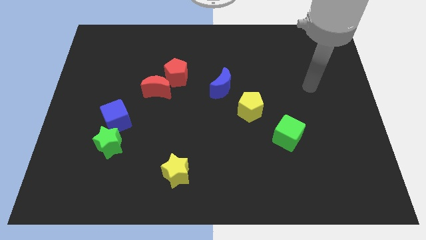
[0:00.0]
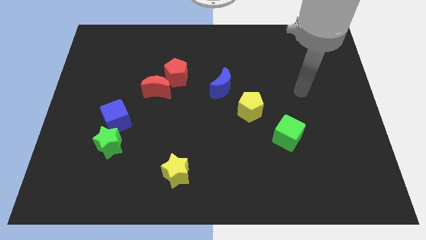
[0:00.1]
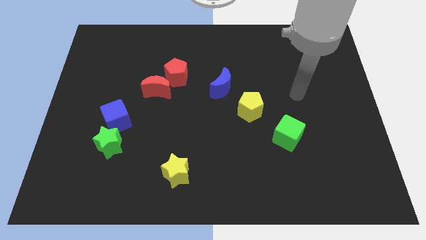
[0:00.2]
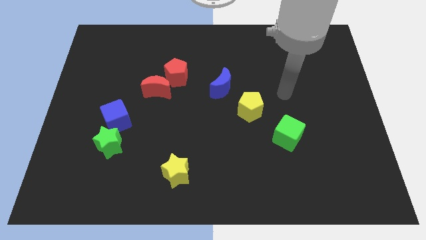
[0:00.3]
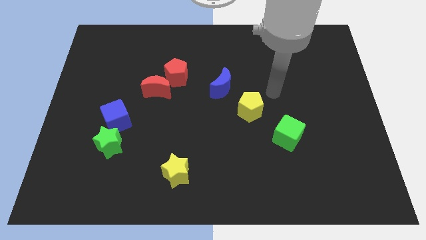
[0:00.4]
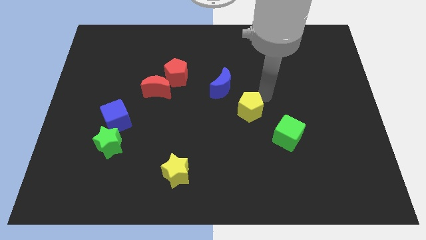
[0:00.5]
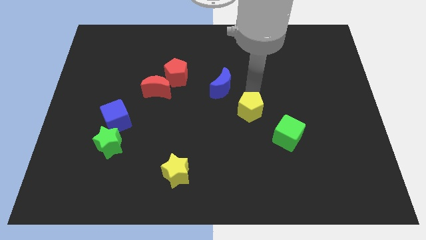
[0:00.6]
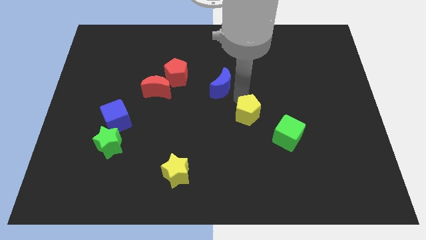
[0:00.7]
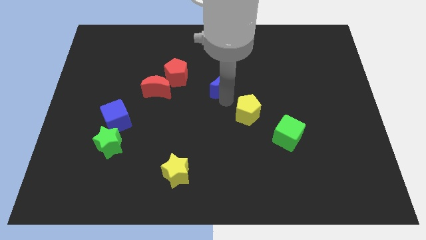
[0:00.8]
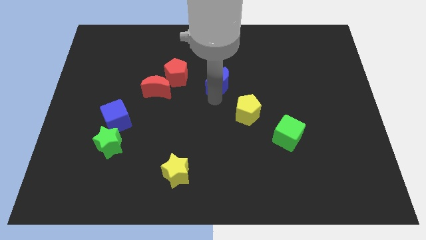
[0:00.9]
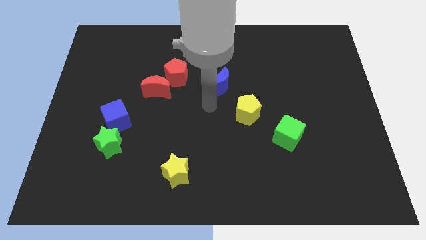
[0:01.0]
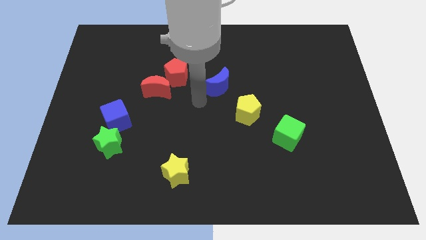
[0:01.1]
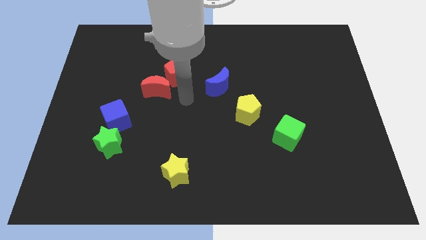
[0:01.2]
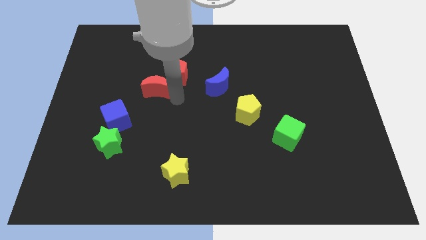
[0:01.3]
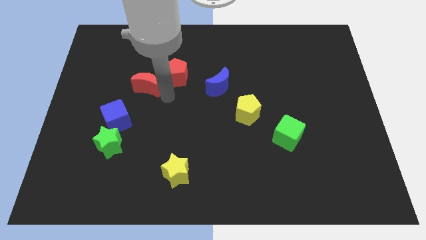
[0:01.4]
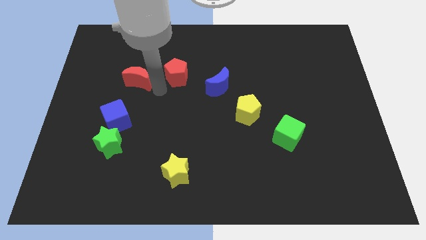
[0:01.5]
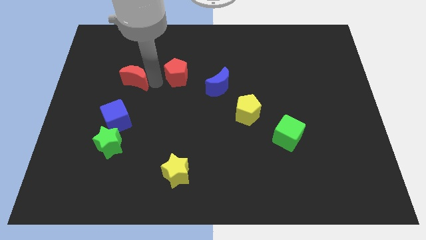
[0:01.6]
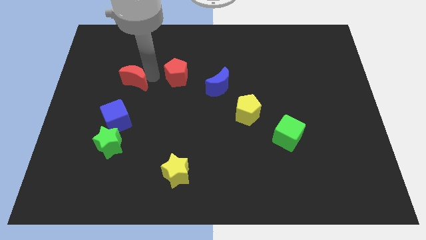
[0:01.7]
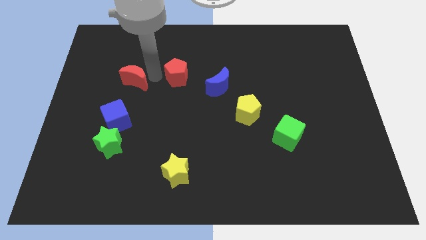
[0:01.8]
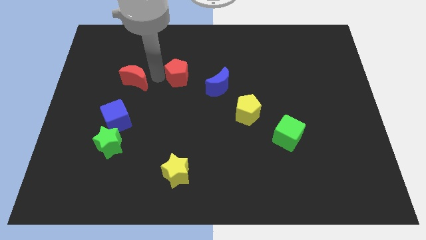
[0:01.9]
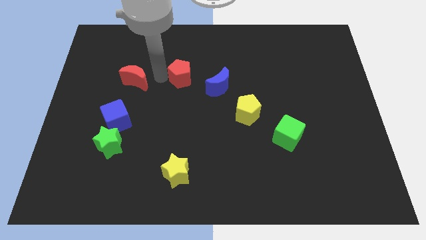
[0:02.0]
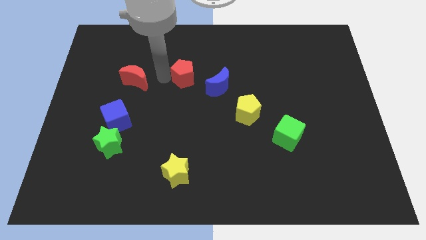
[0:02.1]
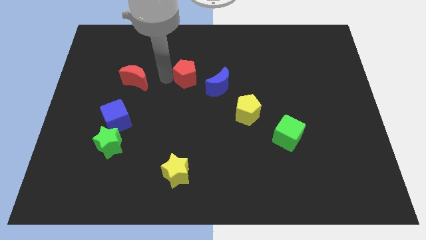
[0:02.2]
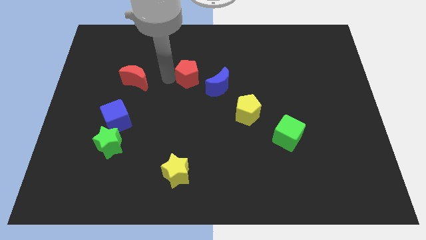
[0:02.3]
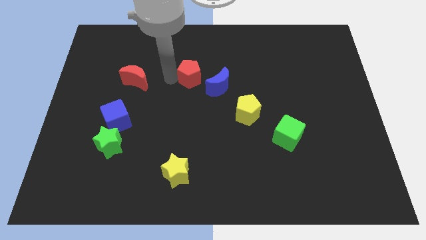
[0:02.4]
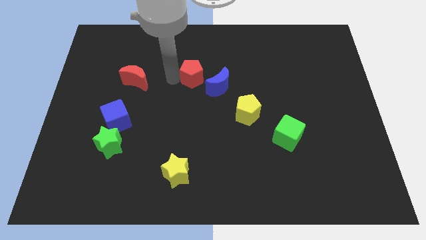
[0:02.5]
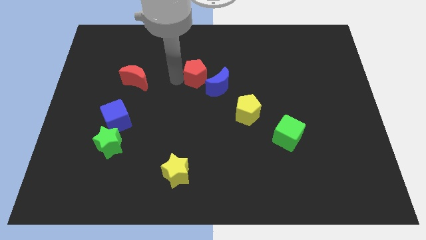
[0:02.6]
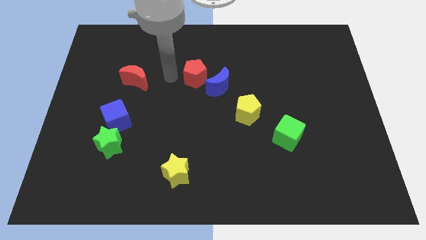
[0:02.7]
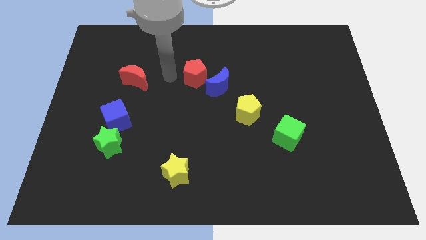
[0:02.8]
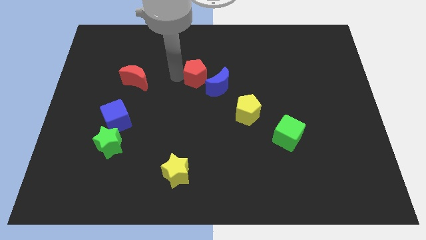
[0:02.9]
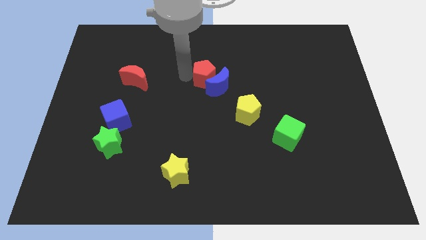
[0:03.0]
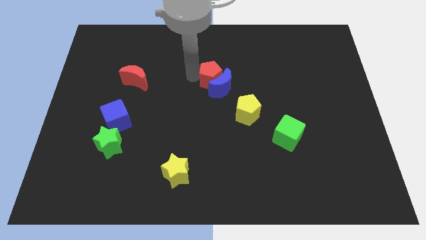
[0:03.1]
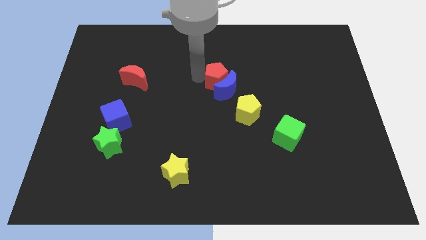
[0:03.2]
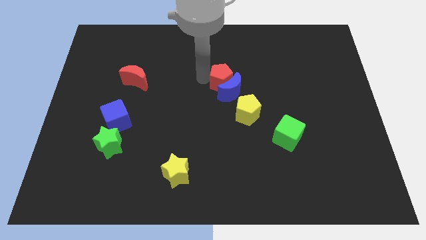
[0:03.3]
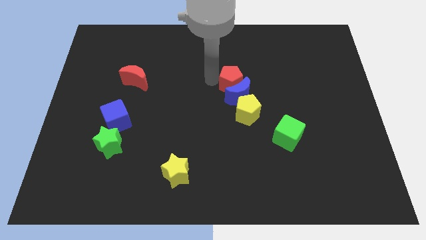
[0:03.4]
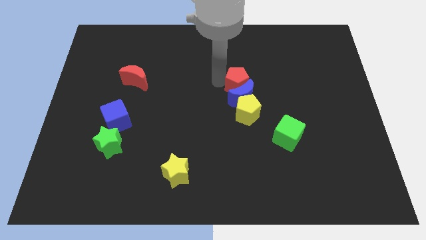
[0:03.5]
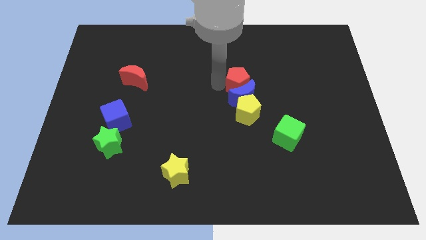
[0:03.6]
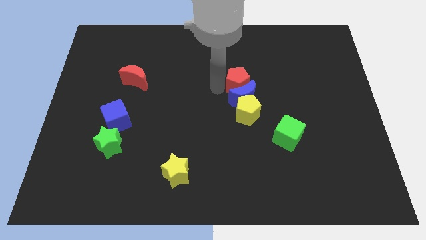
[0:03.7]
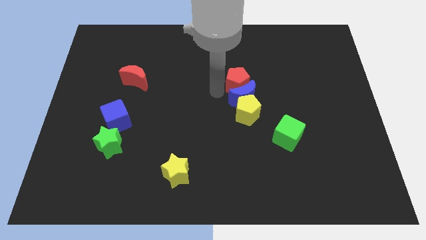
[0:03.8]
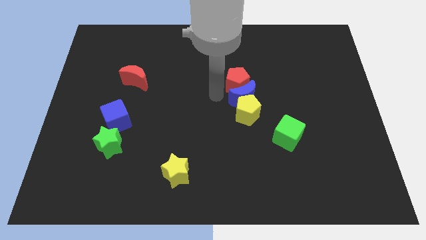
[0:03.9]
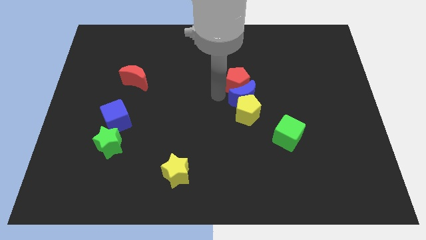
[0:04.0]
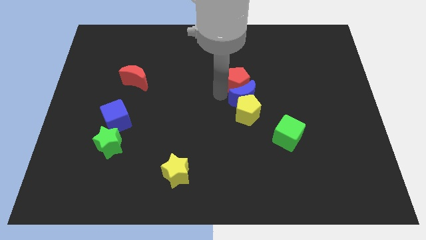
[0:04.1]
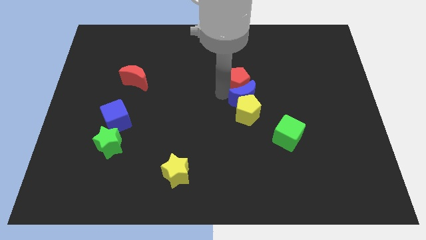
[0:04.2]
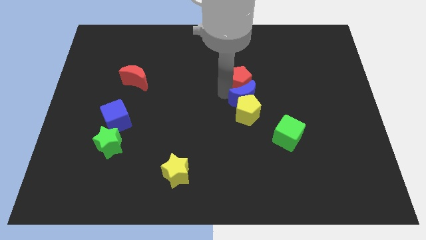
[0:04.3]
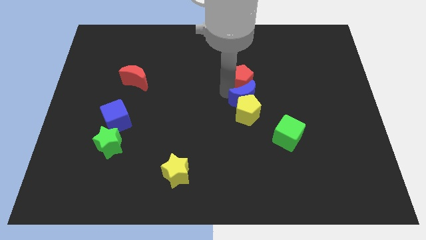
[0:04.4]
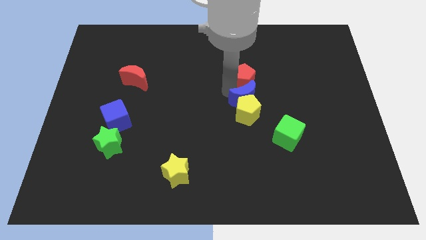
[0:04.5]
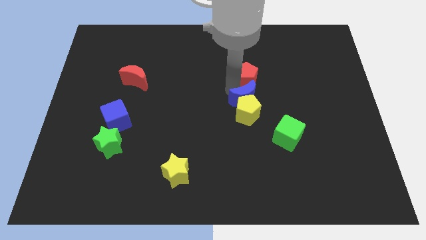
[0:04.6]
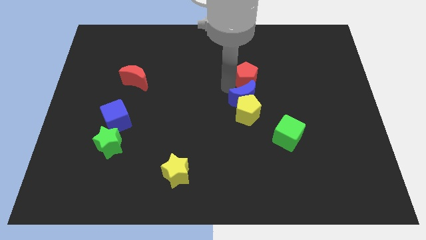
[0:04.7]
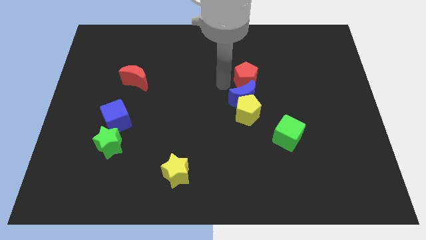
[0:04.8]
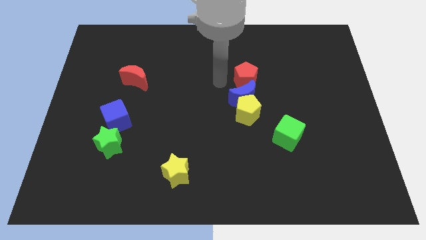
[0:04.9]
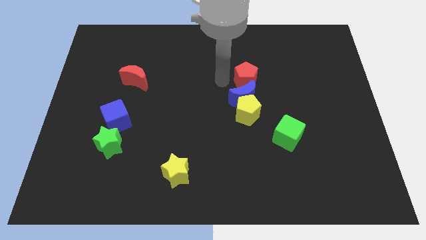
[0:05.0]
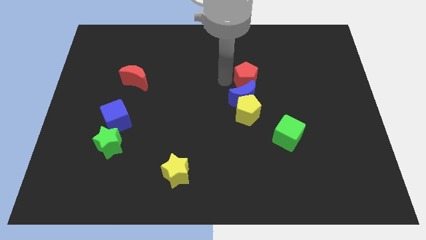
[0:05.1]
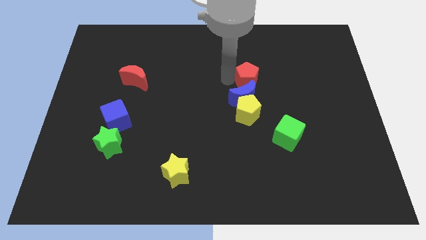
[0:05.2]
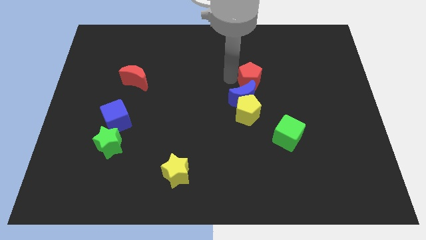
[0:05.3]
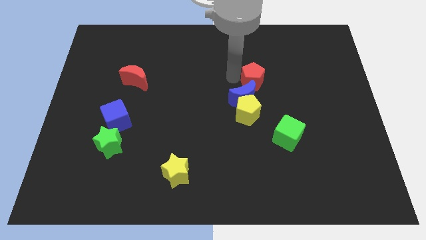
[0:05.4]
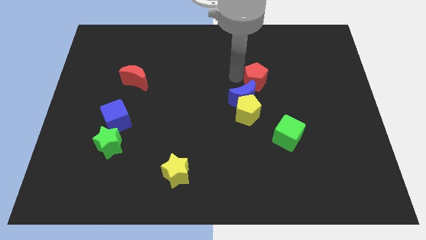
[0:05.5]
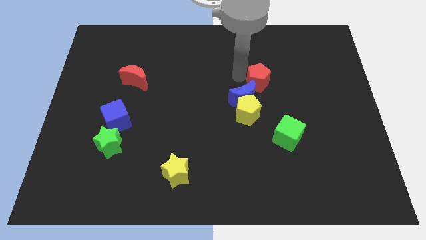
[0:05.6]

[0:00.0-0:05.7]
slide the red pentagon right

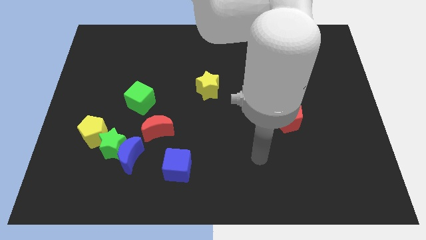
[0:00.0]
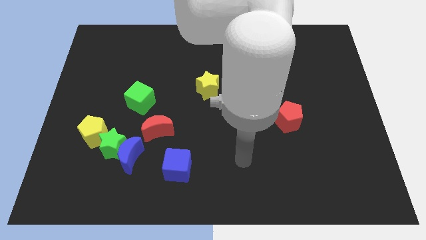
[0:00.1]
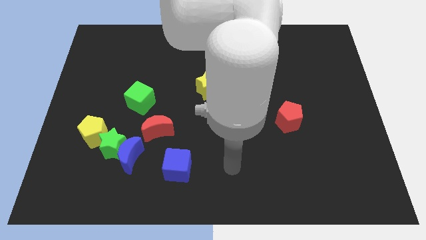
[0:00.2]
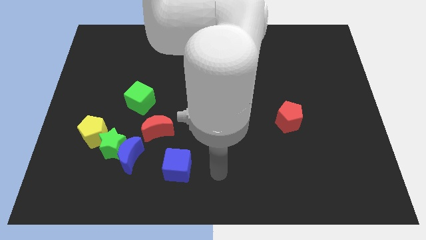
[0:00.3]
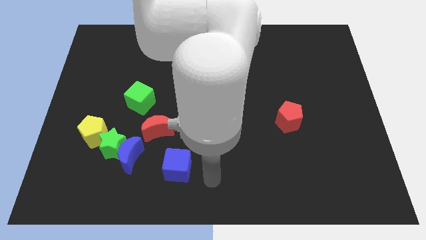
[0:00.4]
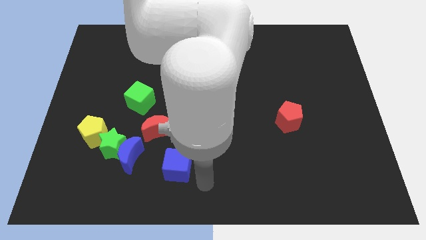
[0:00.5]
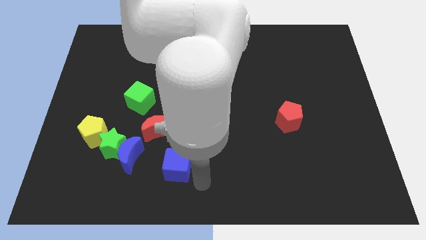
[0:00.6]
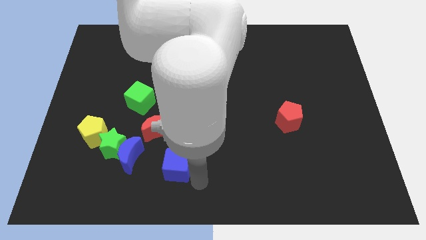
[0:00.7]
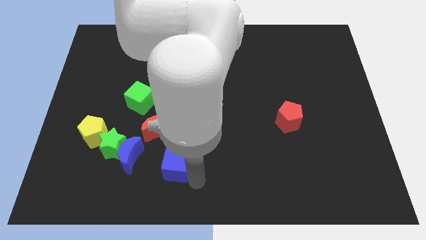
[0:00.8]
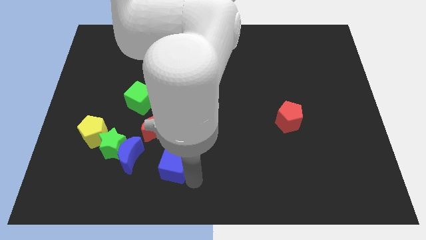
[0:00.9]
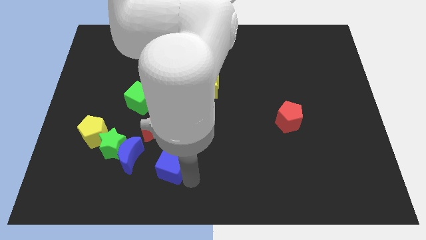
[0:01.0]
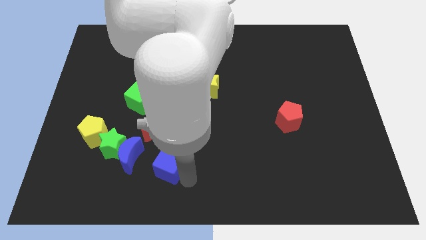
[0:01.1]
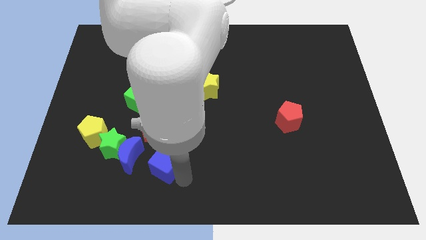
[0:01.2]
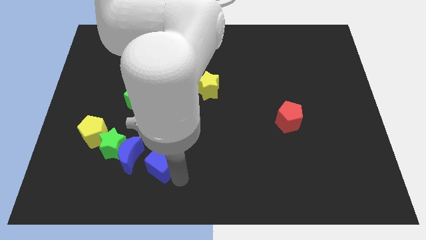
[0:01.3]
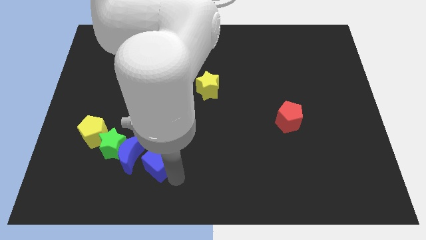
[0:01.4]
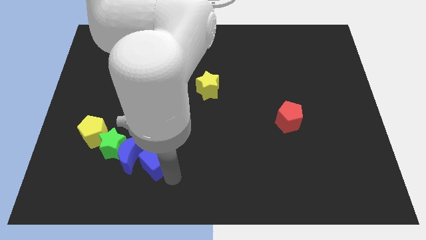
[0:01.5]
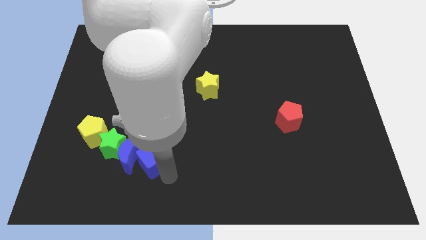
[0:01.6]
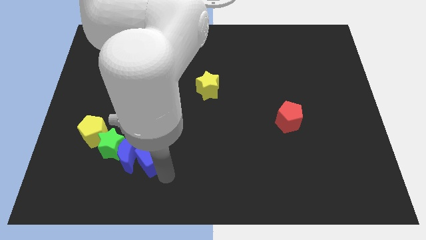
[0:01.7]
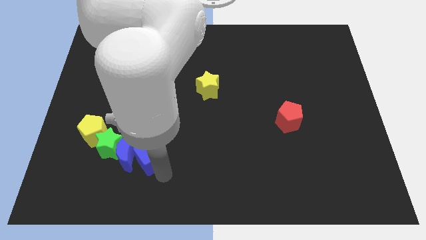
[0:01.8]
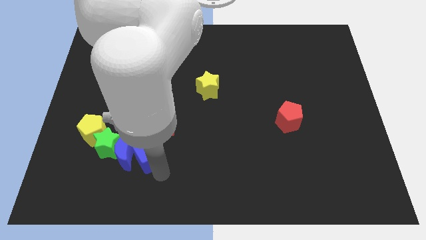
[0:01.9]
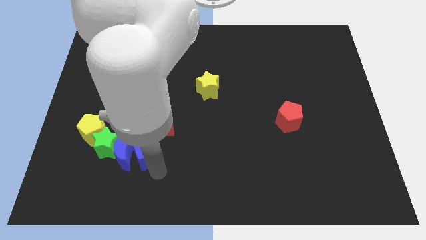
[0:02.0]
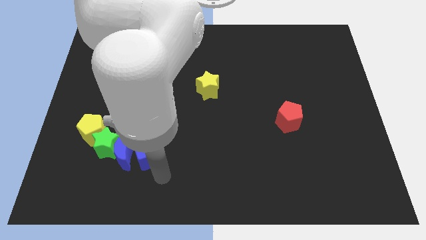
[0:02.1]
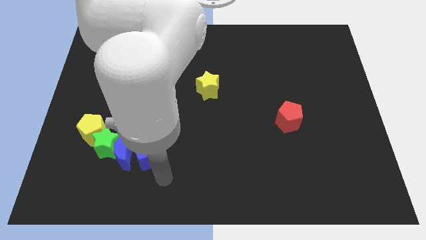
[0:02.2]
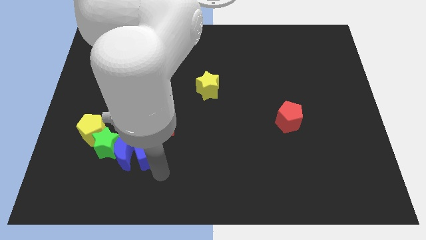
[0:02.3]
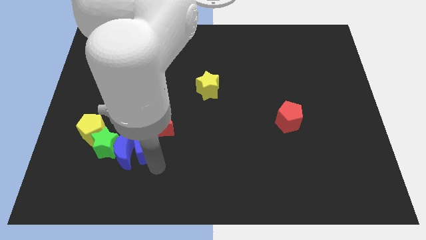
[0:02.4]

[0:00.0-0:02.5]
slide the blue cube a bit upwards and then to the left

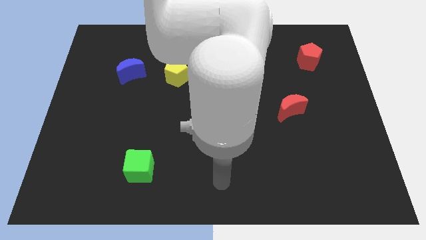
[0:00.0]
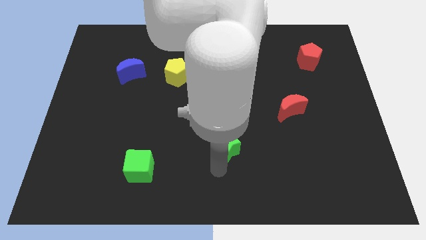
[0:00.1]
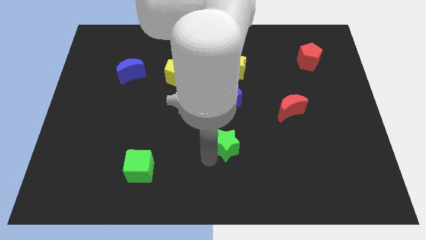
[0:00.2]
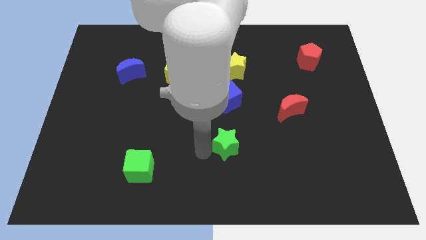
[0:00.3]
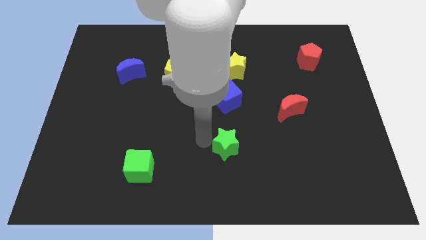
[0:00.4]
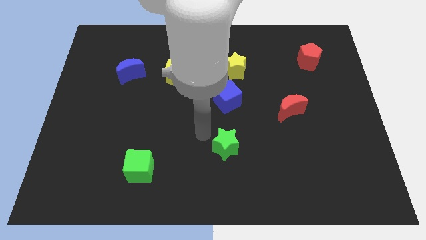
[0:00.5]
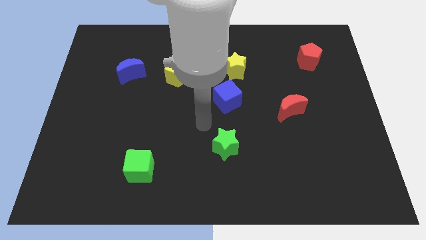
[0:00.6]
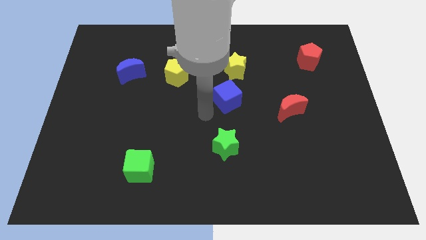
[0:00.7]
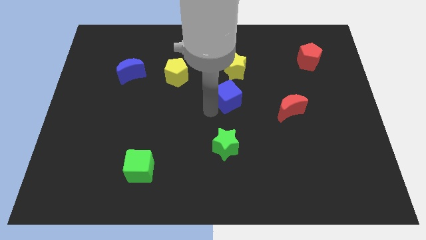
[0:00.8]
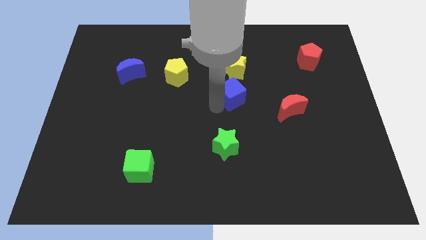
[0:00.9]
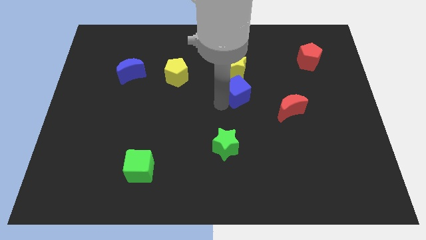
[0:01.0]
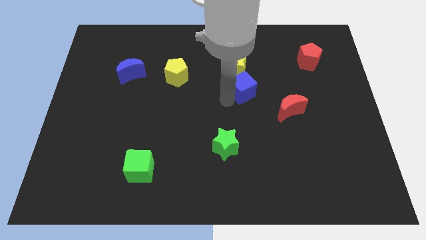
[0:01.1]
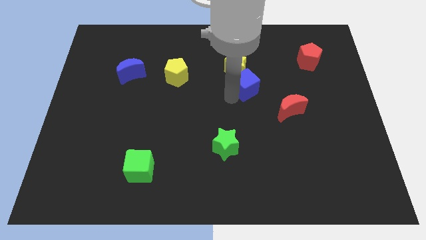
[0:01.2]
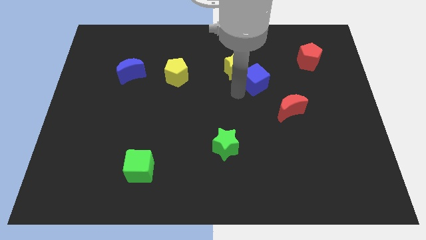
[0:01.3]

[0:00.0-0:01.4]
push the blue cube slightly diagonally upwards and right
